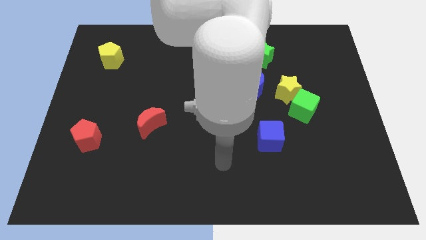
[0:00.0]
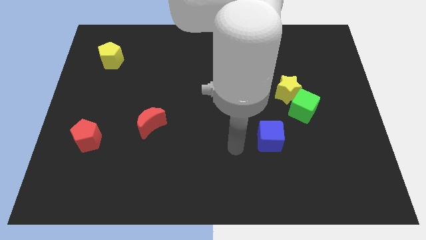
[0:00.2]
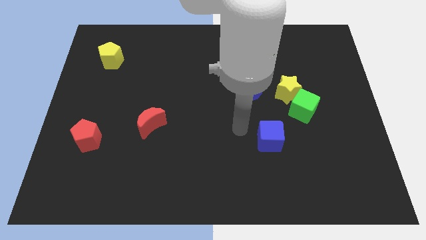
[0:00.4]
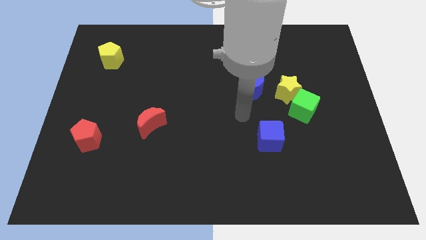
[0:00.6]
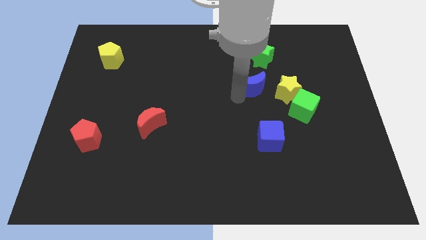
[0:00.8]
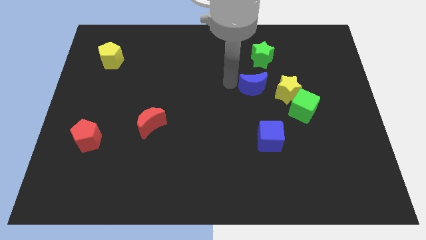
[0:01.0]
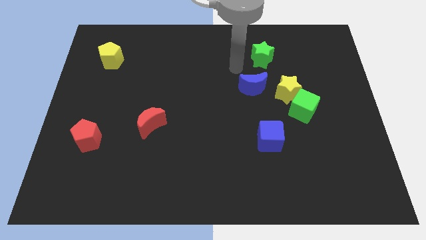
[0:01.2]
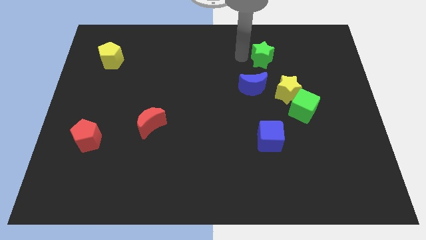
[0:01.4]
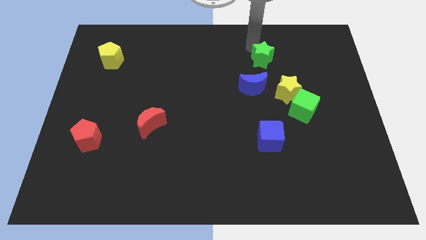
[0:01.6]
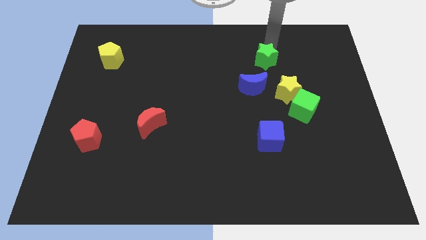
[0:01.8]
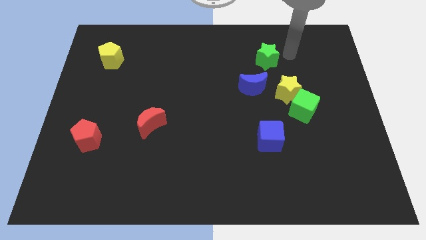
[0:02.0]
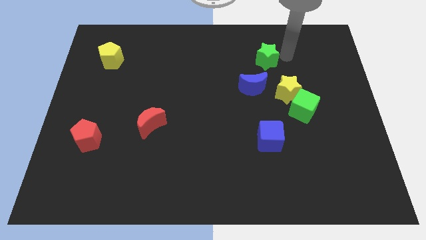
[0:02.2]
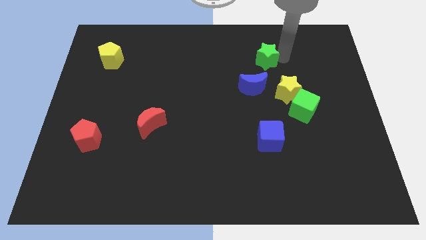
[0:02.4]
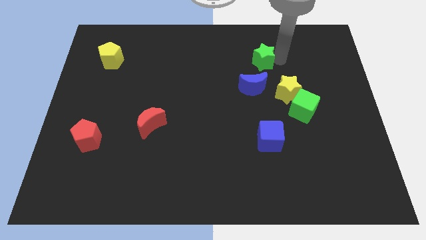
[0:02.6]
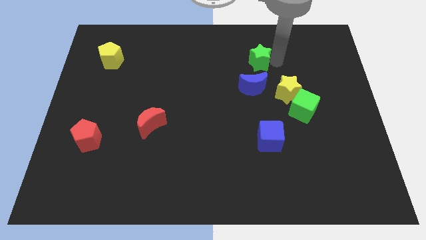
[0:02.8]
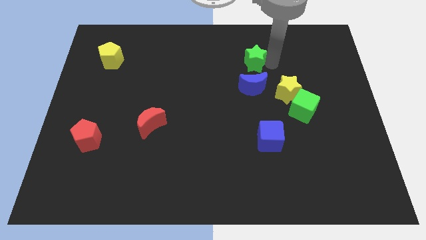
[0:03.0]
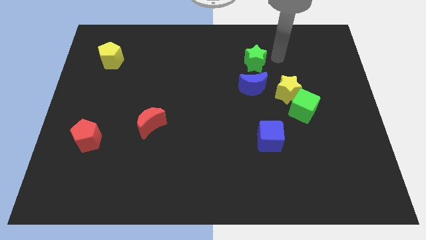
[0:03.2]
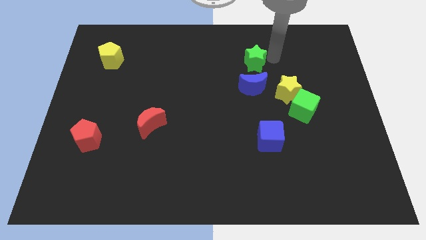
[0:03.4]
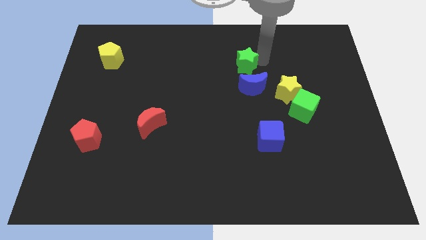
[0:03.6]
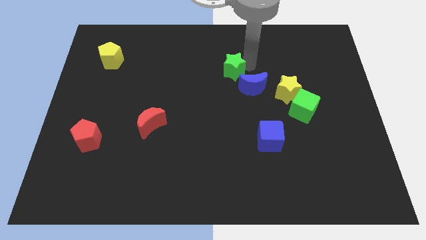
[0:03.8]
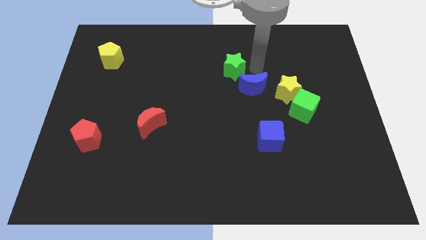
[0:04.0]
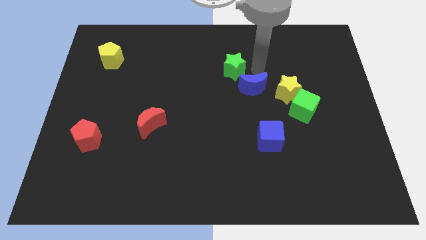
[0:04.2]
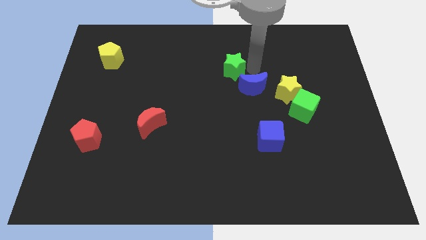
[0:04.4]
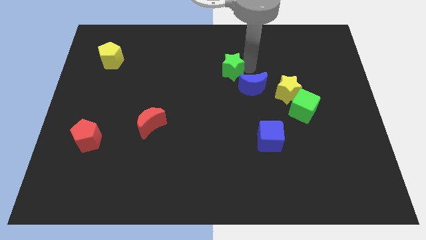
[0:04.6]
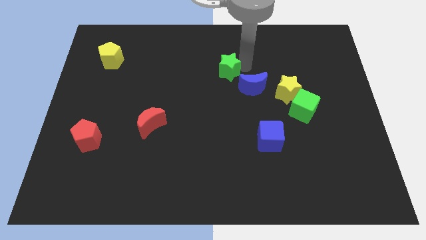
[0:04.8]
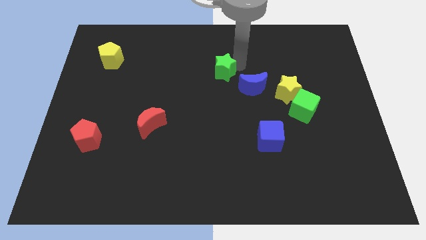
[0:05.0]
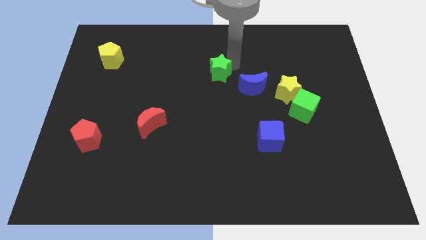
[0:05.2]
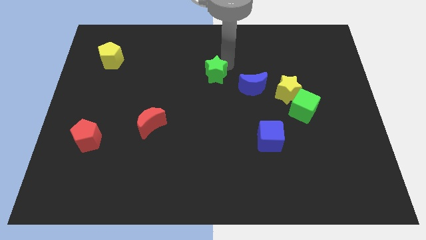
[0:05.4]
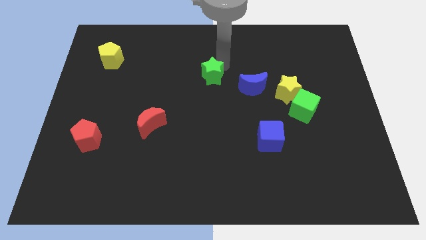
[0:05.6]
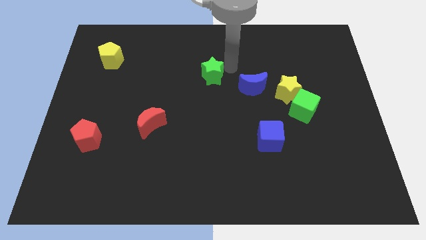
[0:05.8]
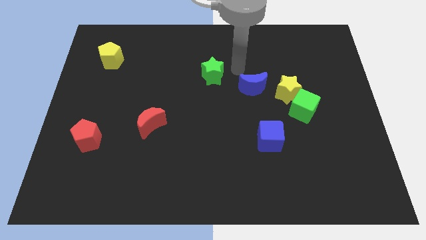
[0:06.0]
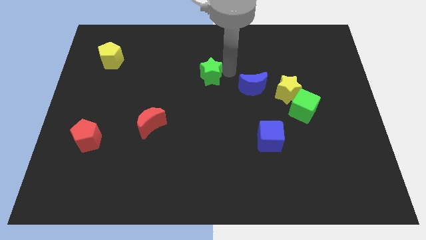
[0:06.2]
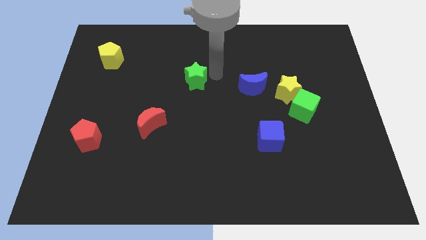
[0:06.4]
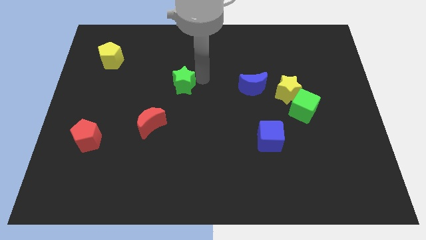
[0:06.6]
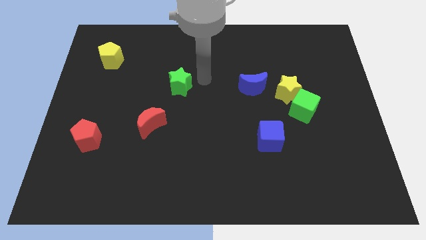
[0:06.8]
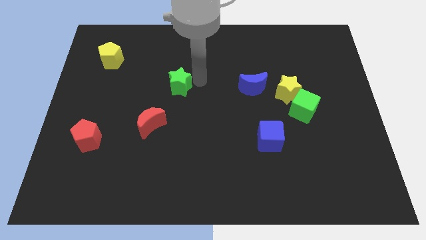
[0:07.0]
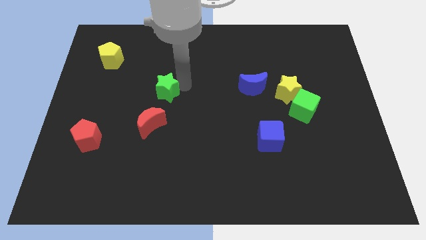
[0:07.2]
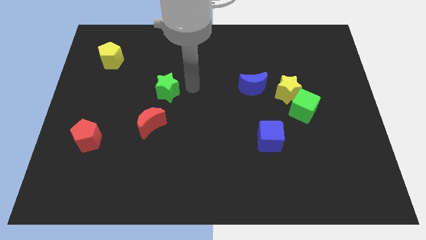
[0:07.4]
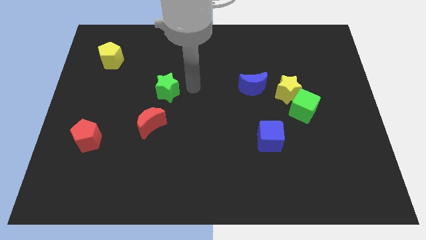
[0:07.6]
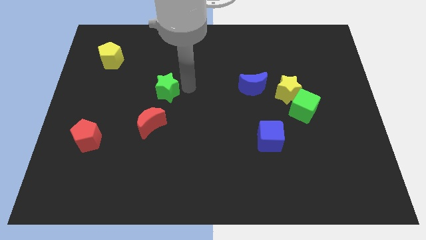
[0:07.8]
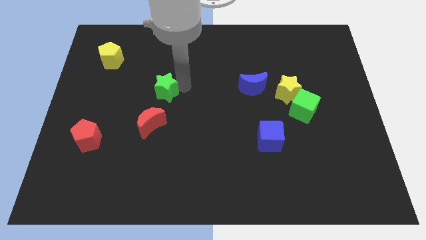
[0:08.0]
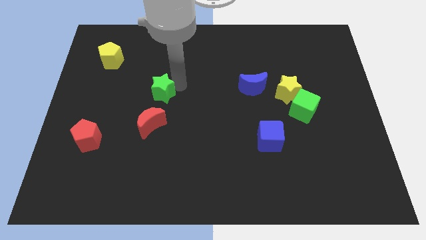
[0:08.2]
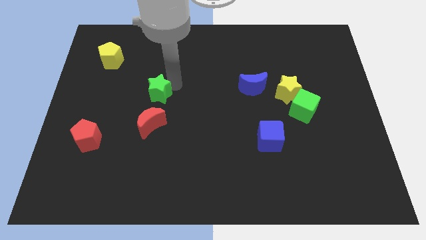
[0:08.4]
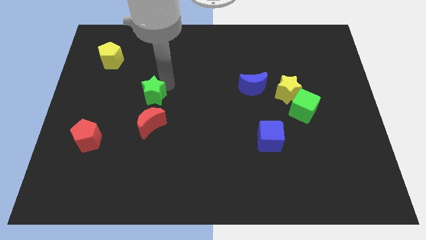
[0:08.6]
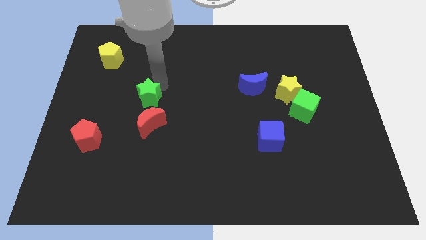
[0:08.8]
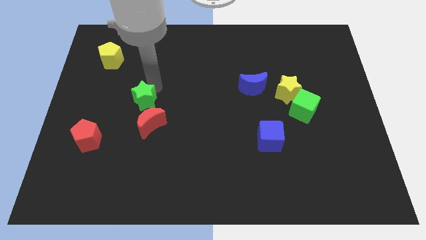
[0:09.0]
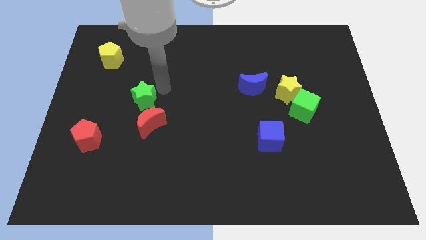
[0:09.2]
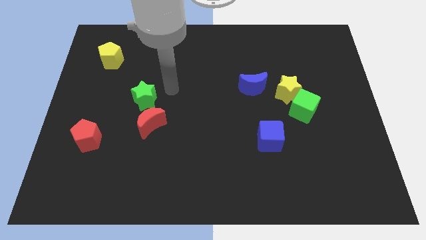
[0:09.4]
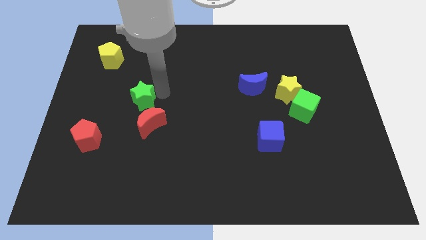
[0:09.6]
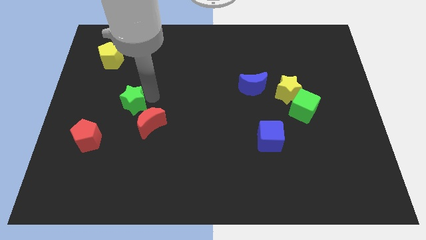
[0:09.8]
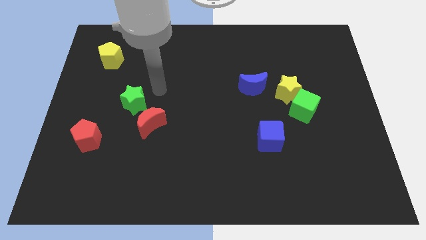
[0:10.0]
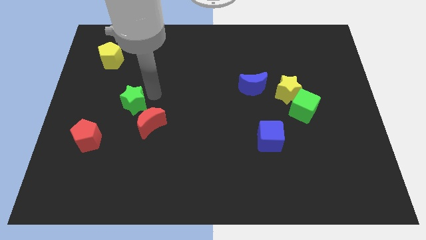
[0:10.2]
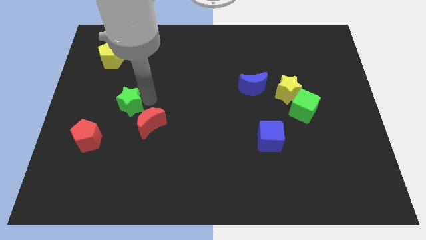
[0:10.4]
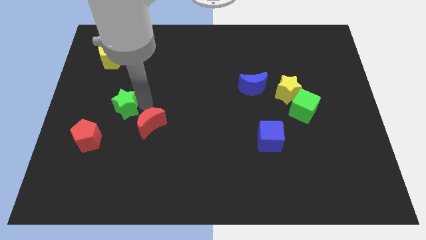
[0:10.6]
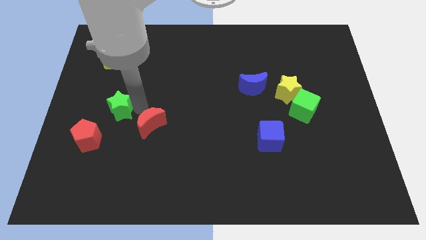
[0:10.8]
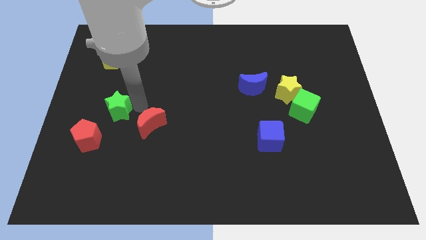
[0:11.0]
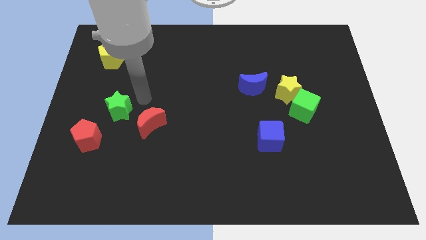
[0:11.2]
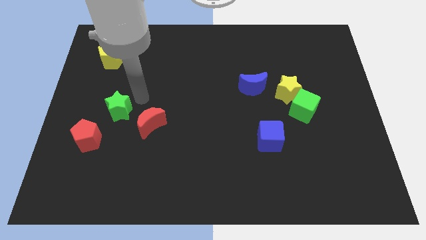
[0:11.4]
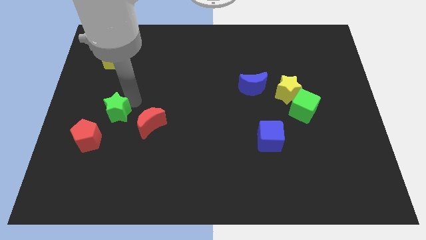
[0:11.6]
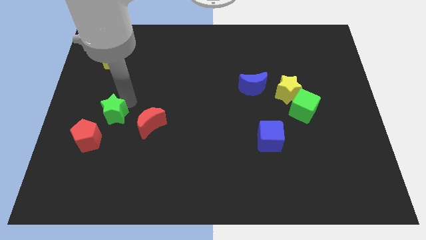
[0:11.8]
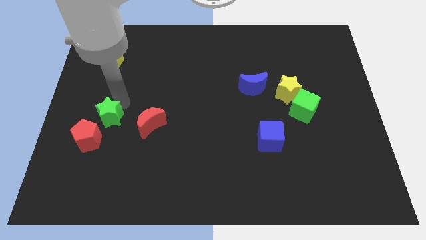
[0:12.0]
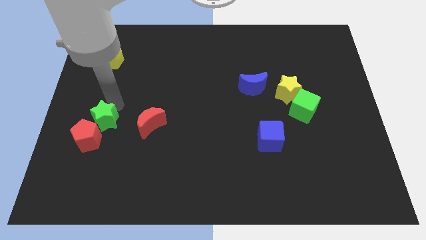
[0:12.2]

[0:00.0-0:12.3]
put the green star to the red pentagon

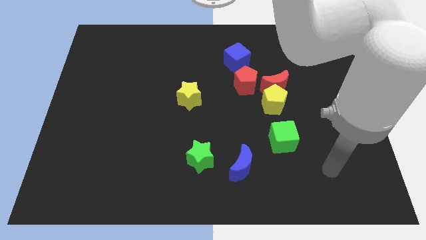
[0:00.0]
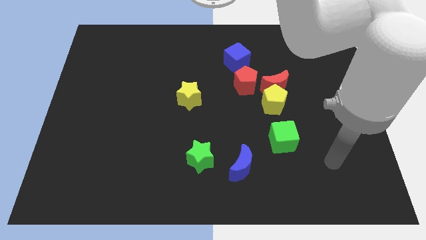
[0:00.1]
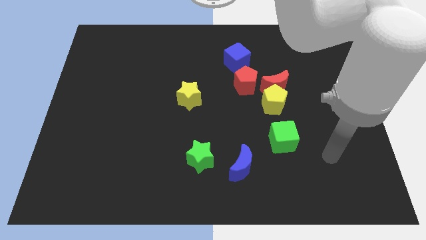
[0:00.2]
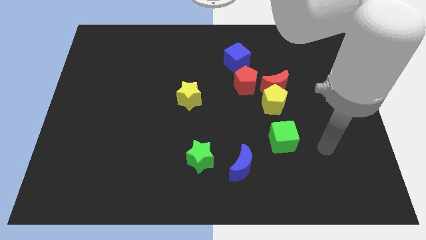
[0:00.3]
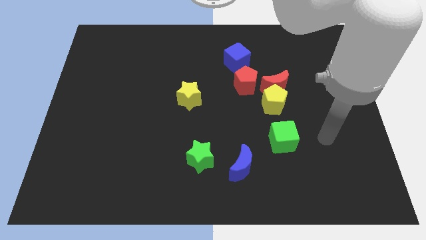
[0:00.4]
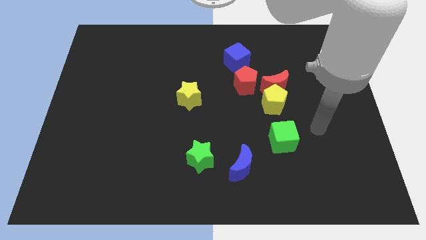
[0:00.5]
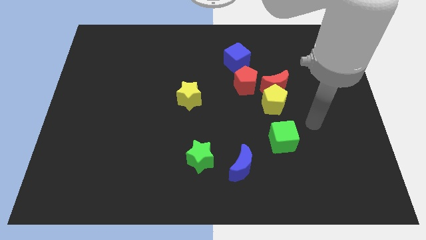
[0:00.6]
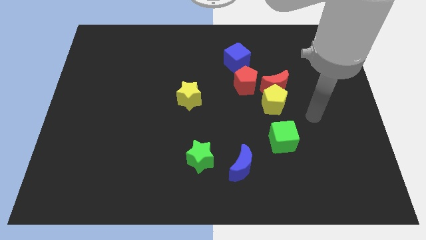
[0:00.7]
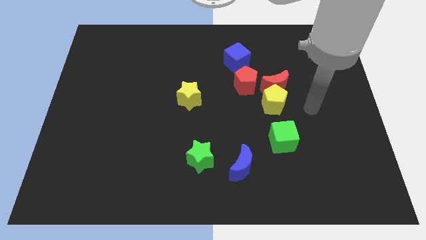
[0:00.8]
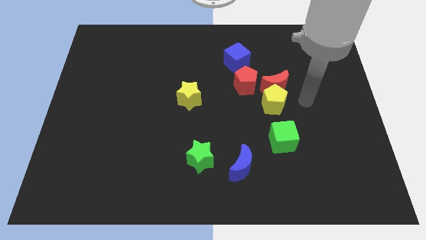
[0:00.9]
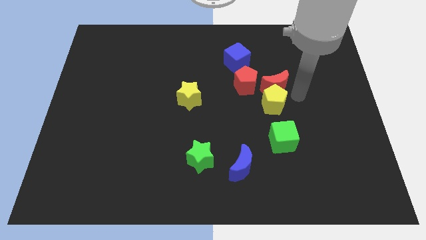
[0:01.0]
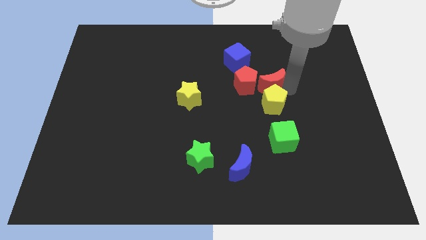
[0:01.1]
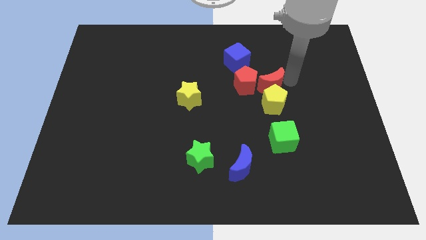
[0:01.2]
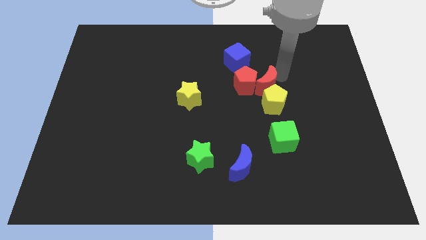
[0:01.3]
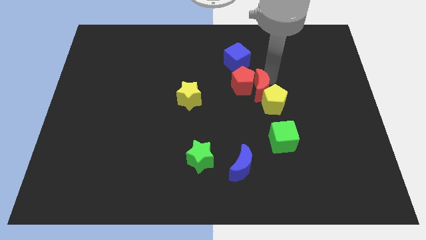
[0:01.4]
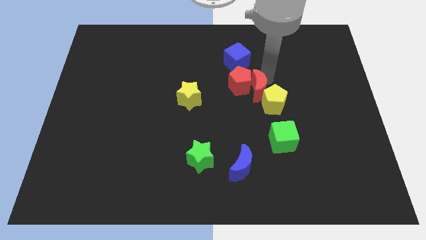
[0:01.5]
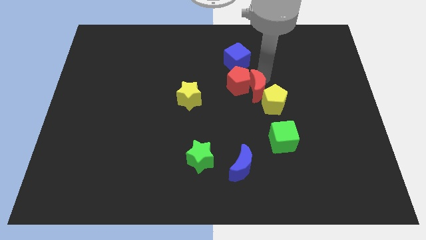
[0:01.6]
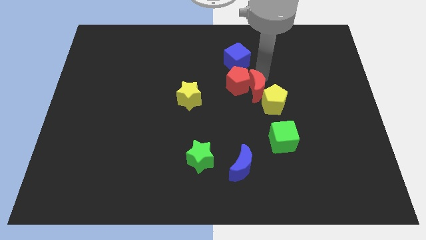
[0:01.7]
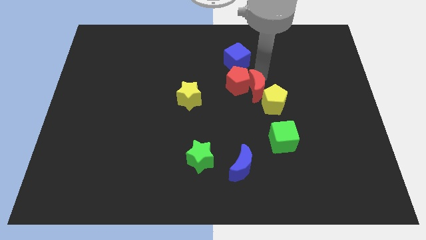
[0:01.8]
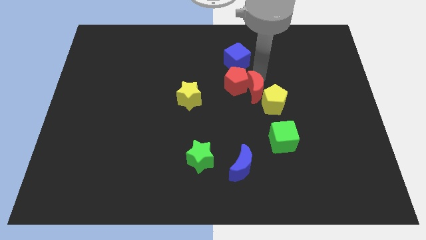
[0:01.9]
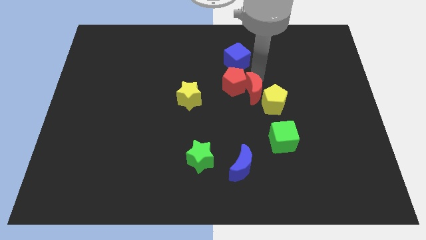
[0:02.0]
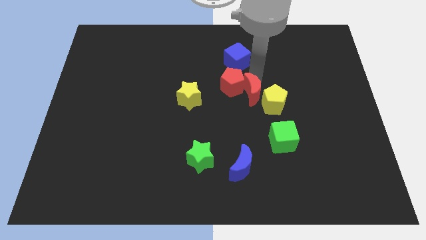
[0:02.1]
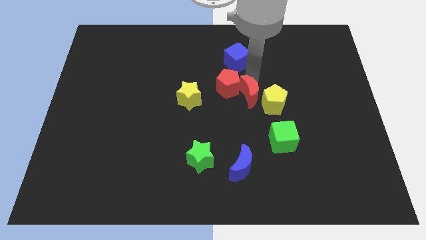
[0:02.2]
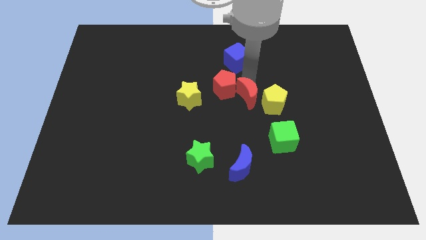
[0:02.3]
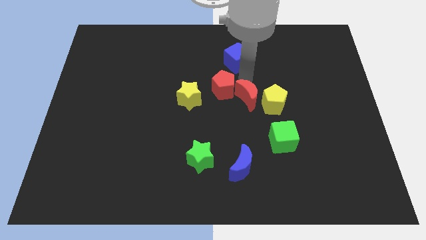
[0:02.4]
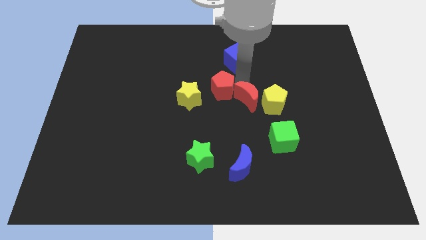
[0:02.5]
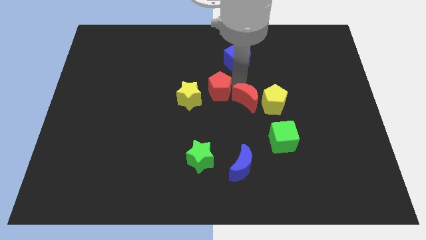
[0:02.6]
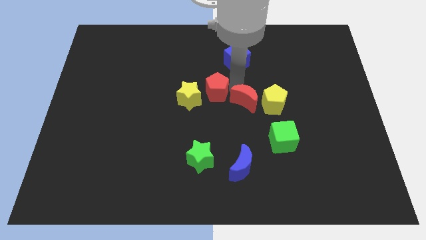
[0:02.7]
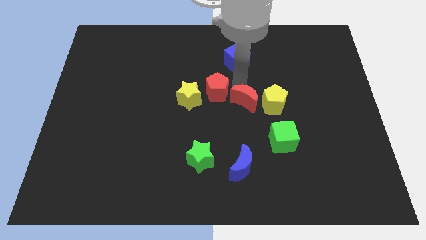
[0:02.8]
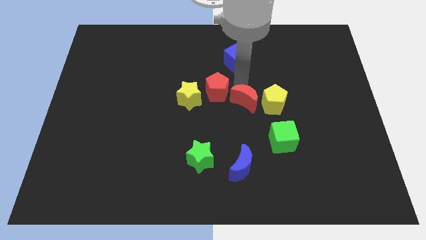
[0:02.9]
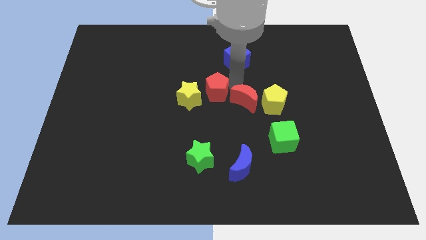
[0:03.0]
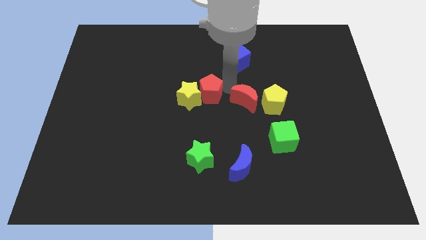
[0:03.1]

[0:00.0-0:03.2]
push the red pentagon next to the yellow star
